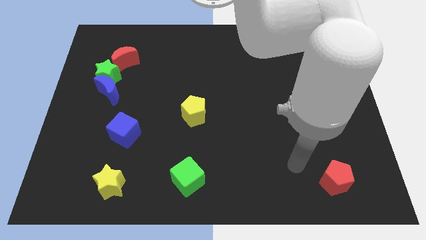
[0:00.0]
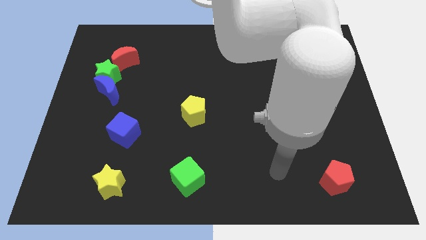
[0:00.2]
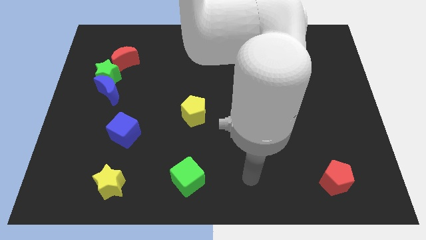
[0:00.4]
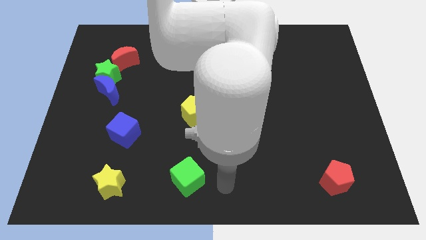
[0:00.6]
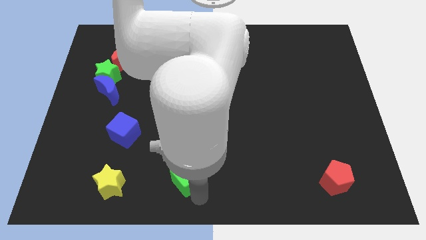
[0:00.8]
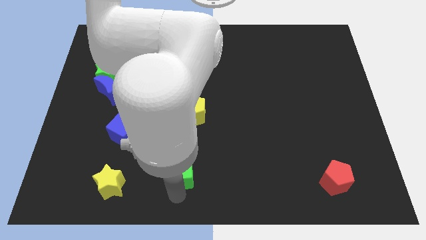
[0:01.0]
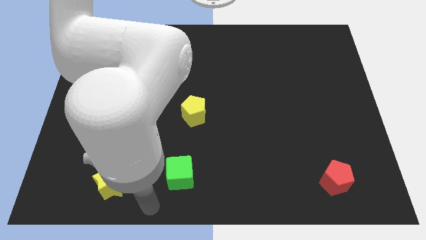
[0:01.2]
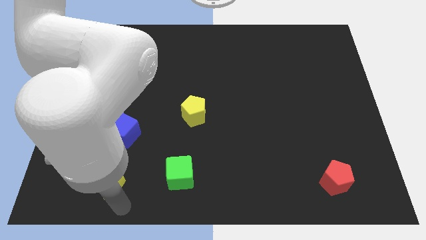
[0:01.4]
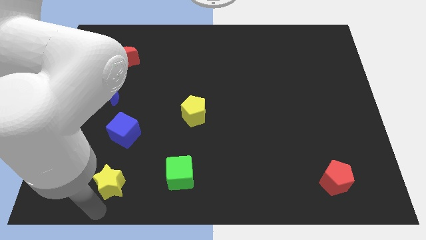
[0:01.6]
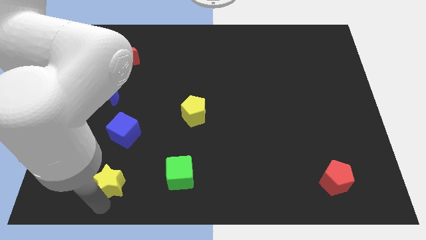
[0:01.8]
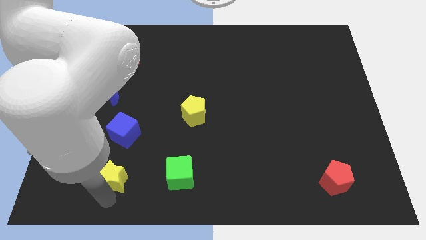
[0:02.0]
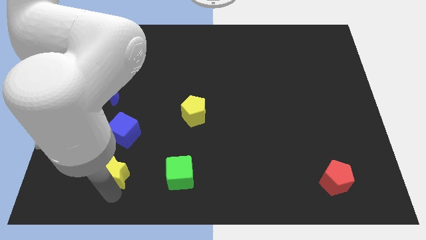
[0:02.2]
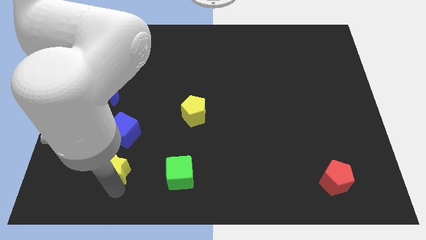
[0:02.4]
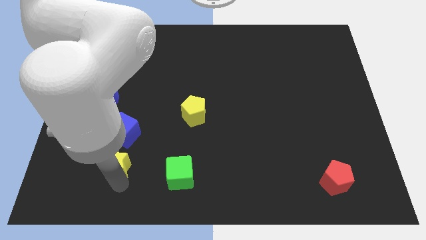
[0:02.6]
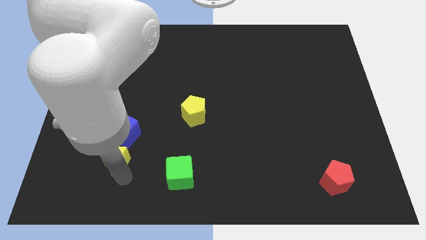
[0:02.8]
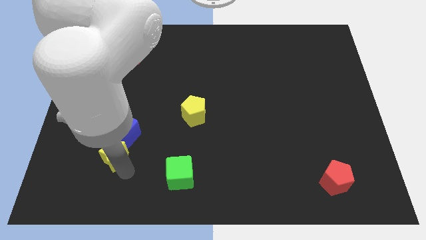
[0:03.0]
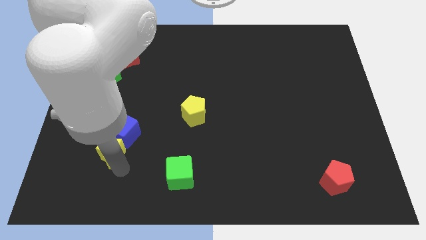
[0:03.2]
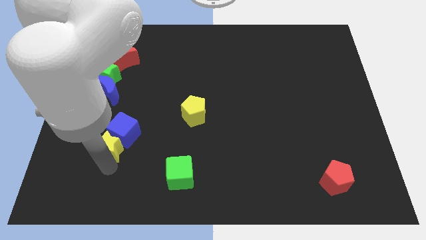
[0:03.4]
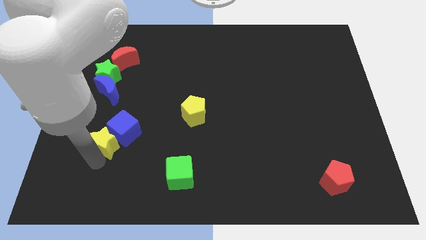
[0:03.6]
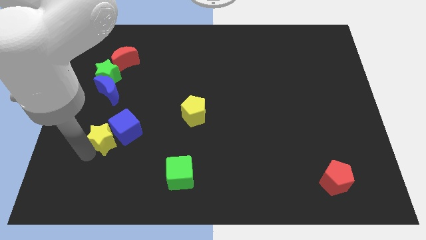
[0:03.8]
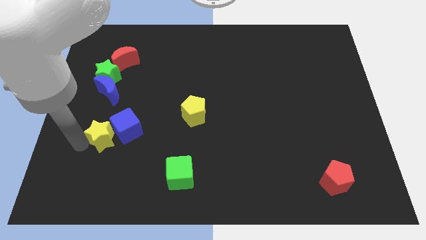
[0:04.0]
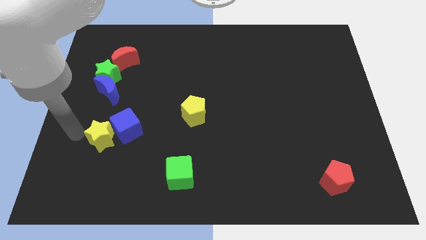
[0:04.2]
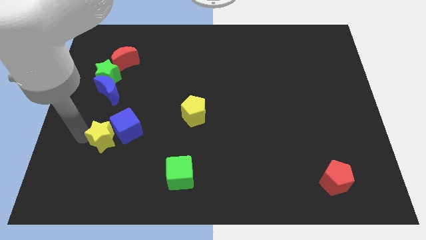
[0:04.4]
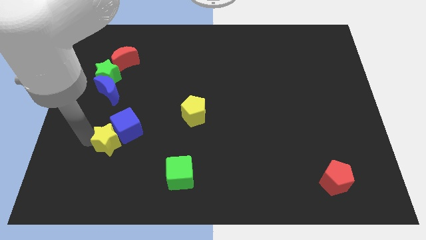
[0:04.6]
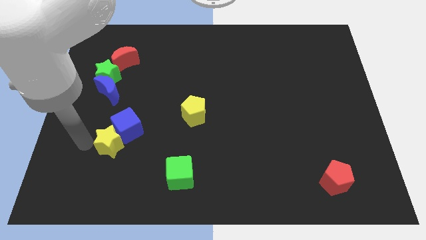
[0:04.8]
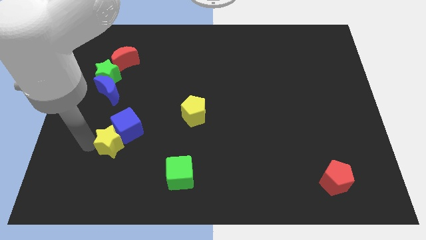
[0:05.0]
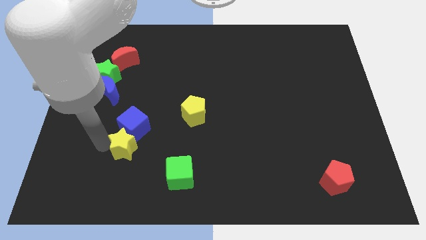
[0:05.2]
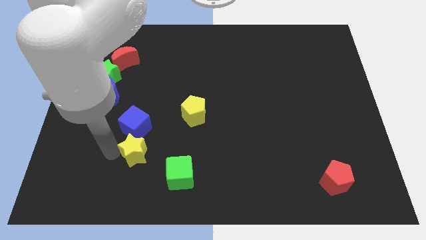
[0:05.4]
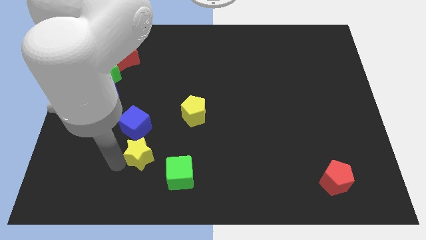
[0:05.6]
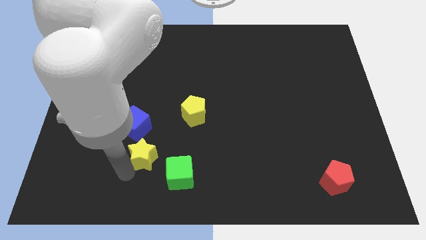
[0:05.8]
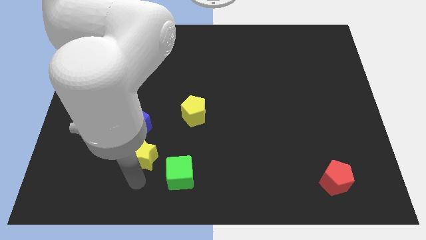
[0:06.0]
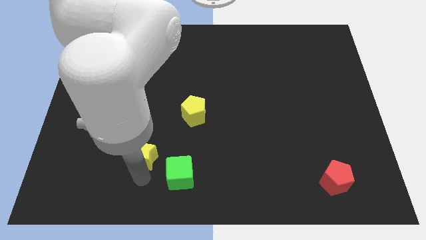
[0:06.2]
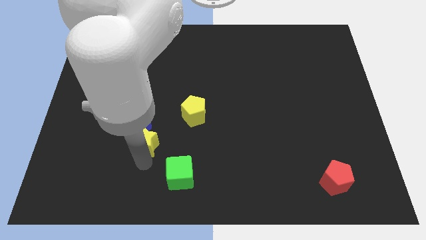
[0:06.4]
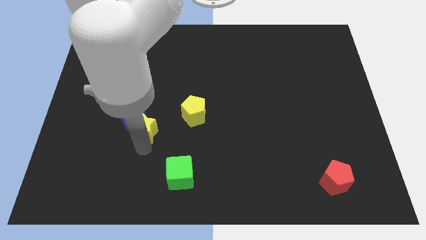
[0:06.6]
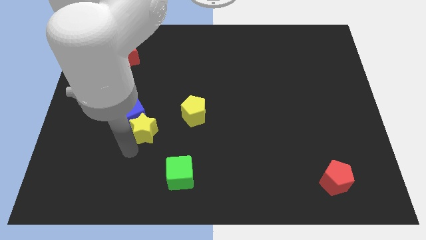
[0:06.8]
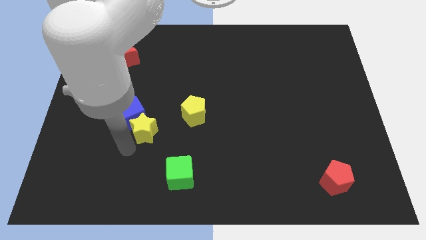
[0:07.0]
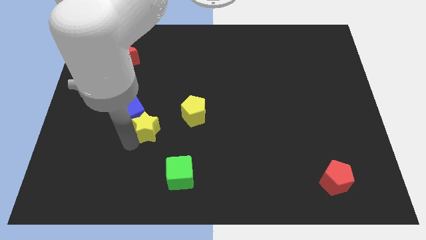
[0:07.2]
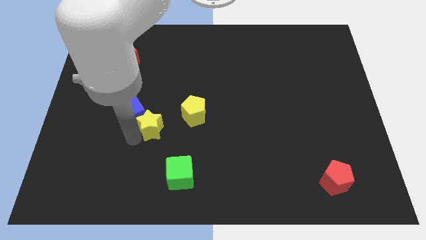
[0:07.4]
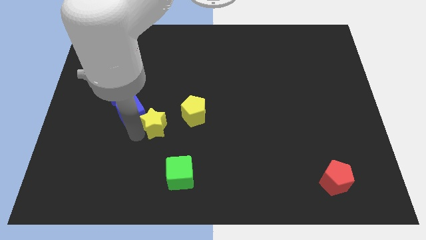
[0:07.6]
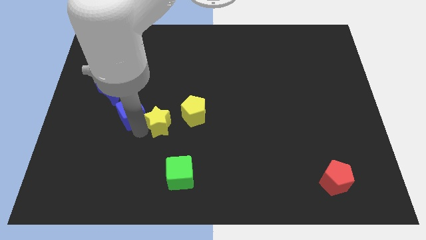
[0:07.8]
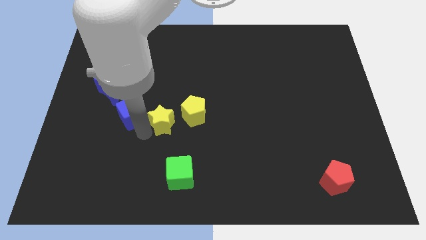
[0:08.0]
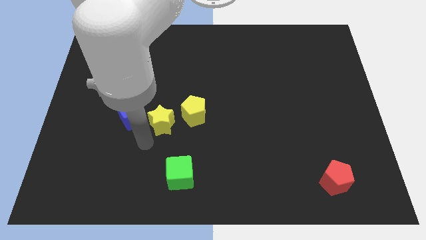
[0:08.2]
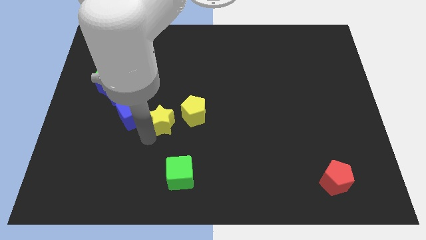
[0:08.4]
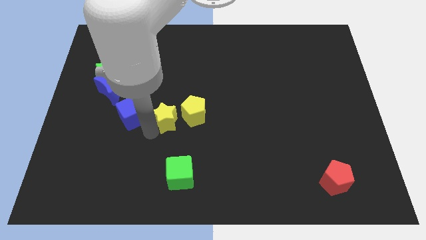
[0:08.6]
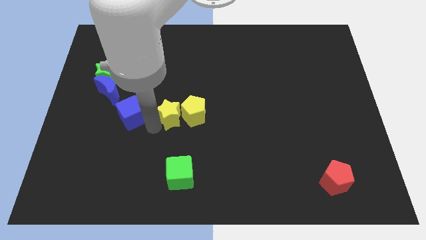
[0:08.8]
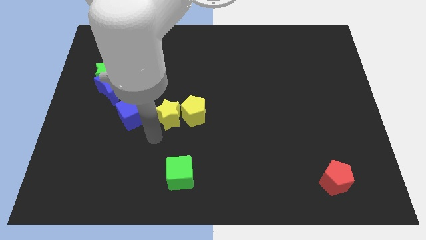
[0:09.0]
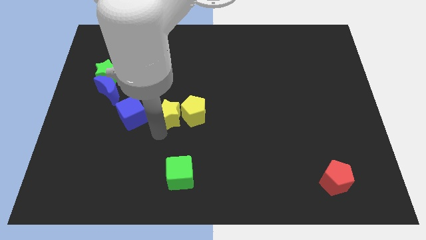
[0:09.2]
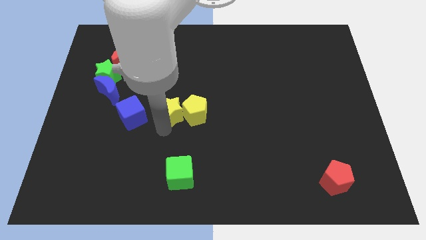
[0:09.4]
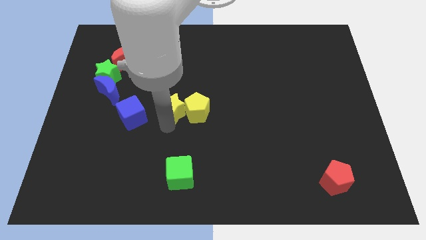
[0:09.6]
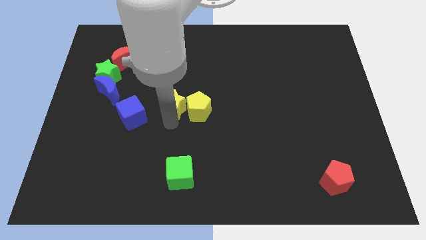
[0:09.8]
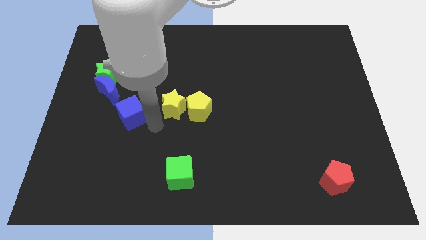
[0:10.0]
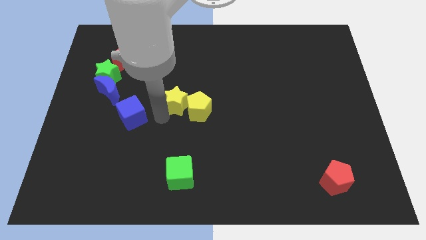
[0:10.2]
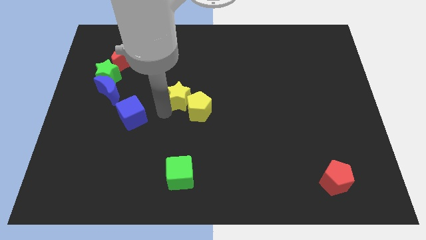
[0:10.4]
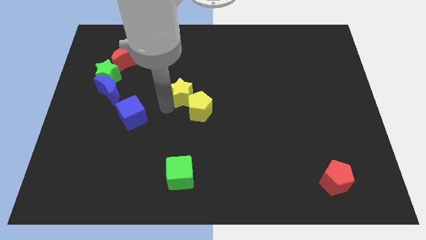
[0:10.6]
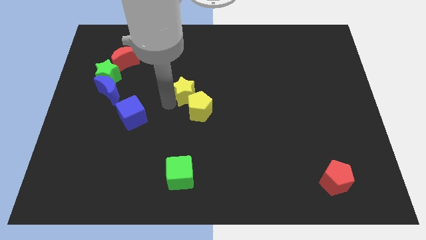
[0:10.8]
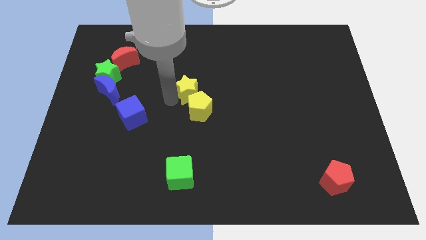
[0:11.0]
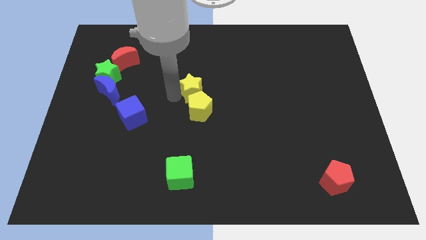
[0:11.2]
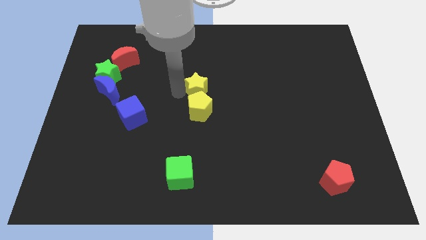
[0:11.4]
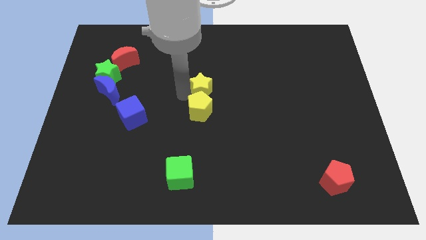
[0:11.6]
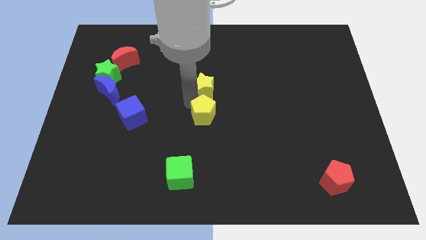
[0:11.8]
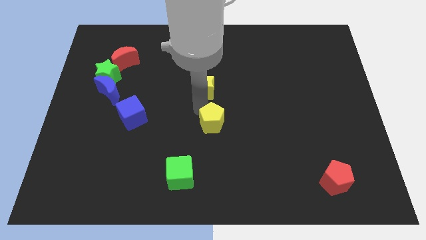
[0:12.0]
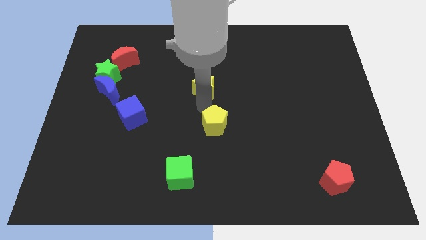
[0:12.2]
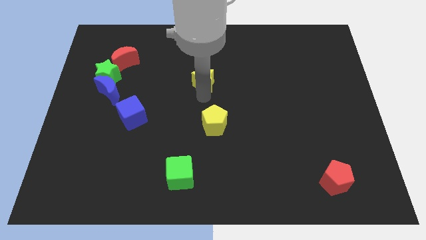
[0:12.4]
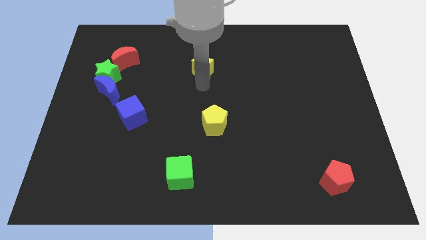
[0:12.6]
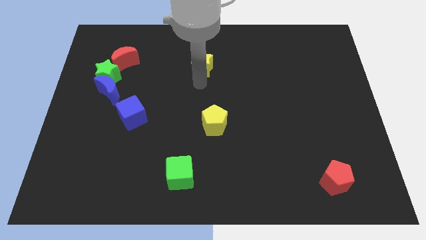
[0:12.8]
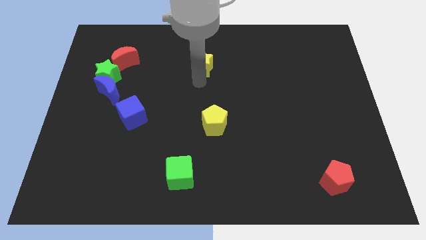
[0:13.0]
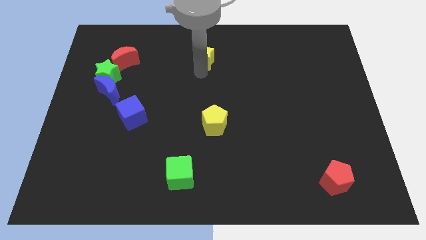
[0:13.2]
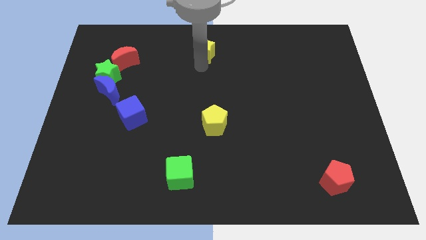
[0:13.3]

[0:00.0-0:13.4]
put the yellow star to the towards your base
